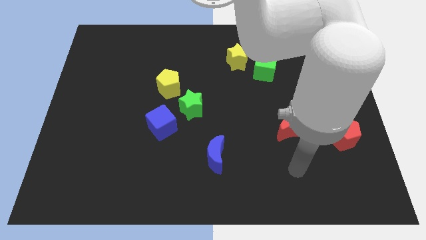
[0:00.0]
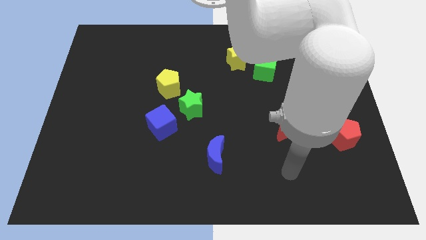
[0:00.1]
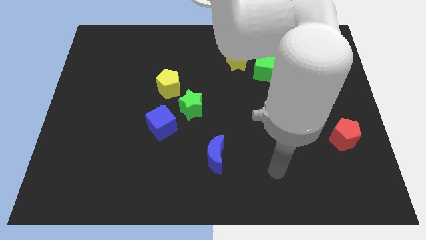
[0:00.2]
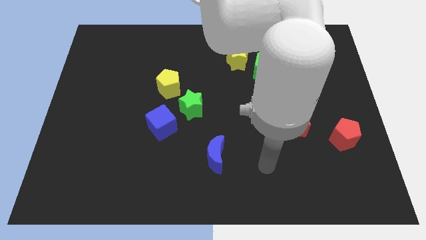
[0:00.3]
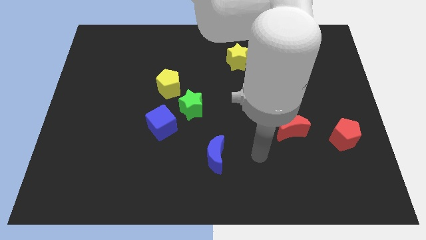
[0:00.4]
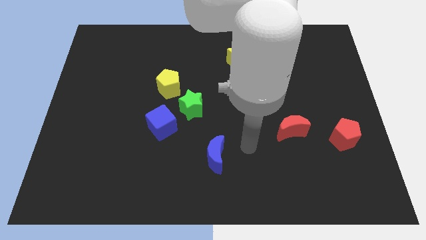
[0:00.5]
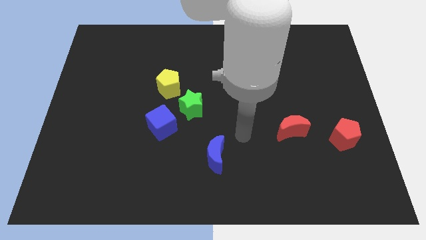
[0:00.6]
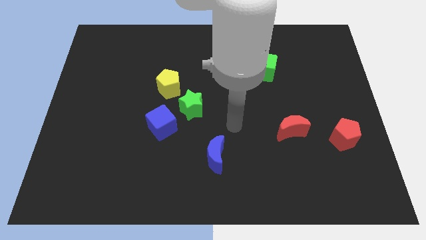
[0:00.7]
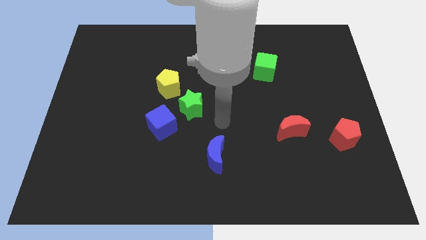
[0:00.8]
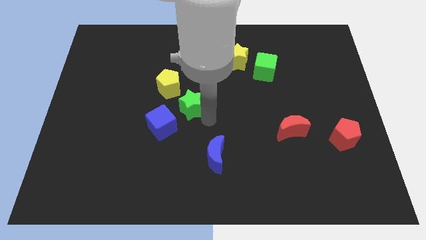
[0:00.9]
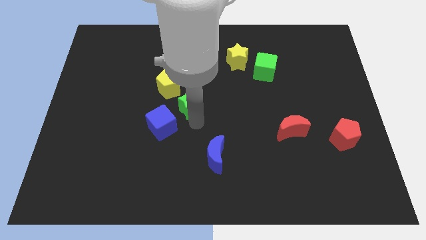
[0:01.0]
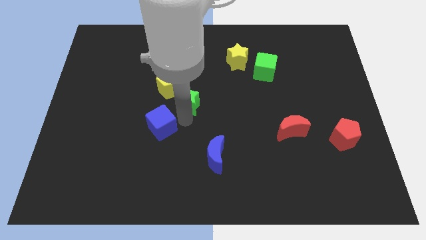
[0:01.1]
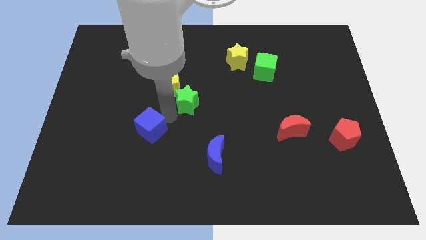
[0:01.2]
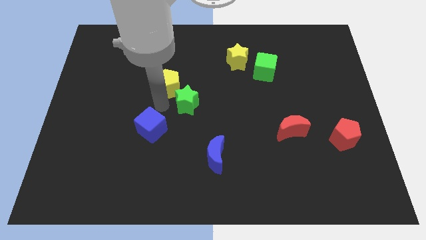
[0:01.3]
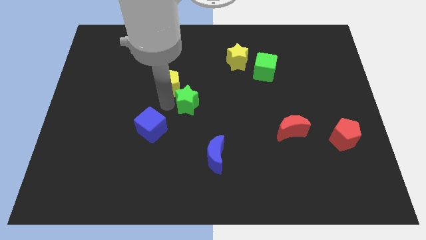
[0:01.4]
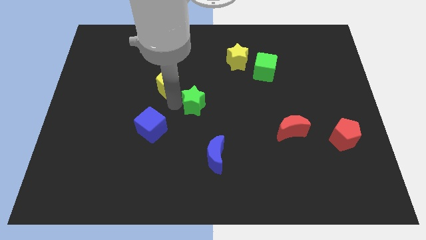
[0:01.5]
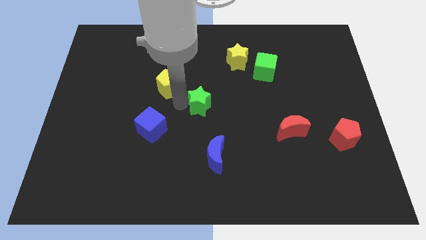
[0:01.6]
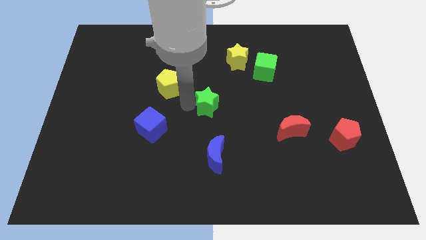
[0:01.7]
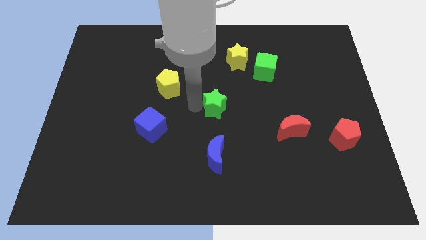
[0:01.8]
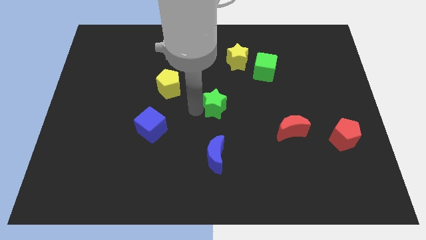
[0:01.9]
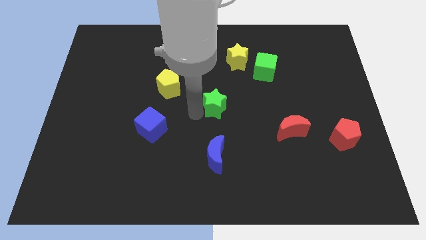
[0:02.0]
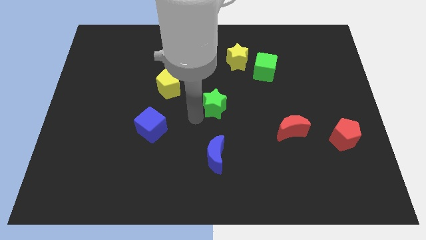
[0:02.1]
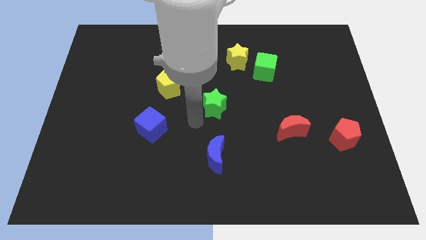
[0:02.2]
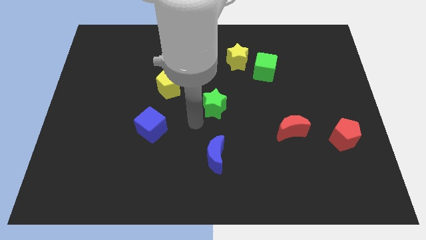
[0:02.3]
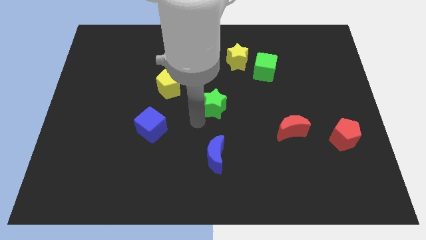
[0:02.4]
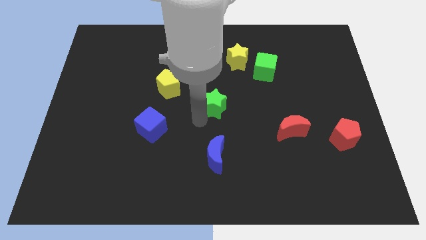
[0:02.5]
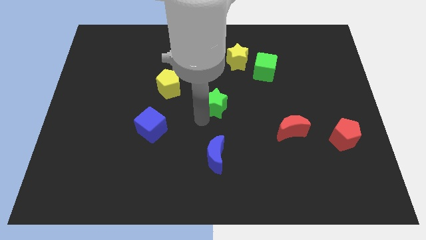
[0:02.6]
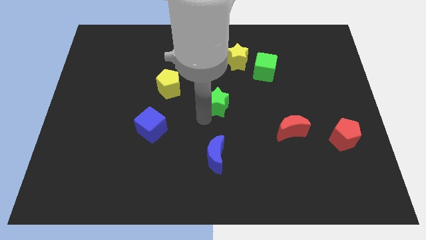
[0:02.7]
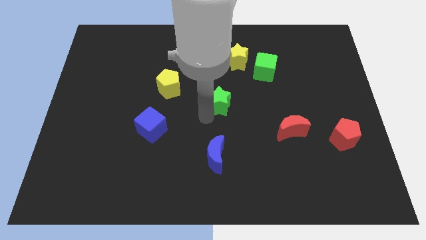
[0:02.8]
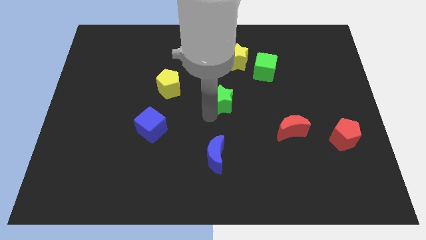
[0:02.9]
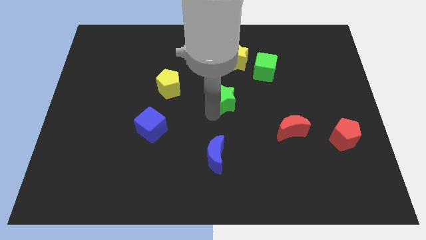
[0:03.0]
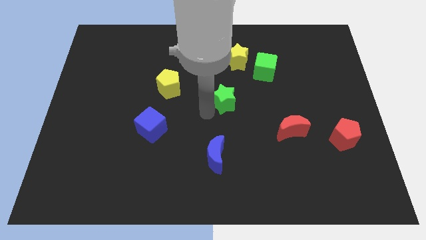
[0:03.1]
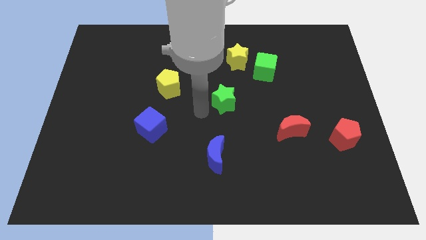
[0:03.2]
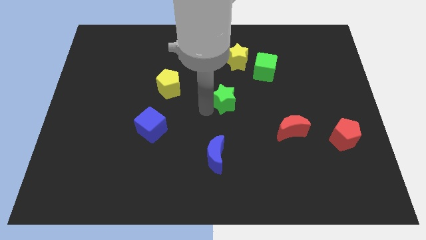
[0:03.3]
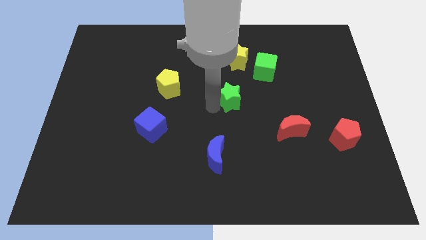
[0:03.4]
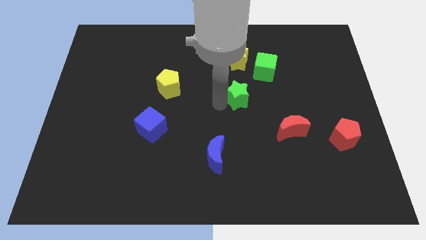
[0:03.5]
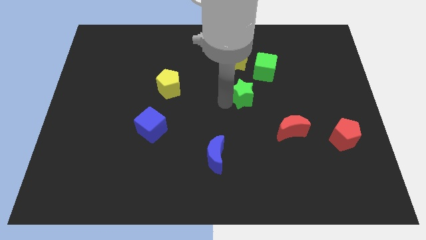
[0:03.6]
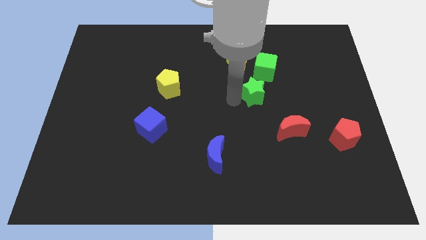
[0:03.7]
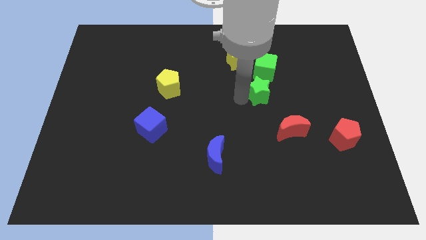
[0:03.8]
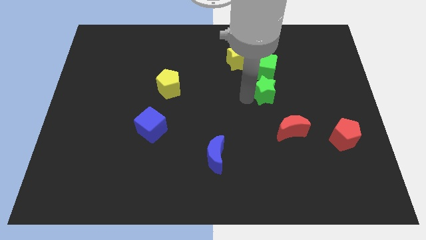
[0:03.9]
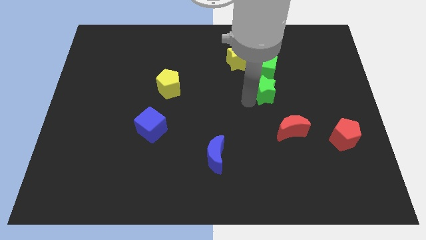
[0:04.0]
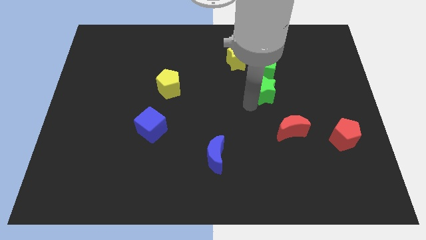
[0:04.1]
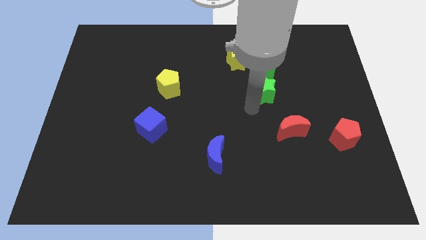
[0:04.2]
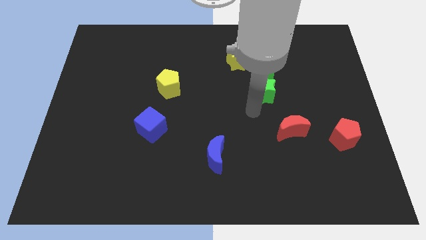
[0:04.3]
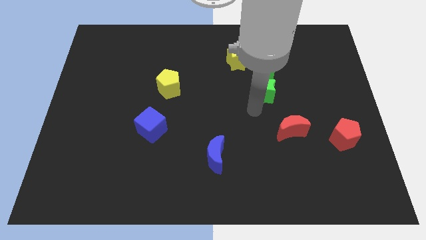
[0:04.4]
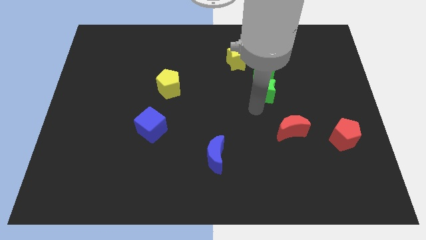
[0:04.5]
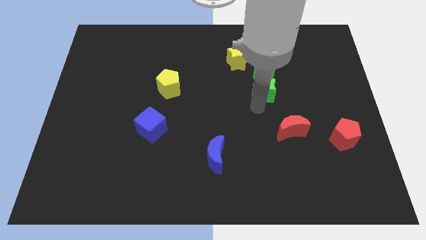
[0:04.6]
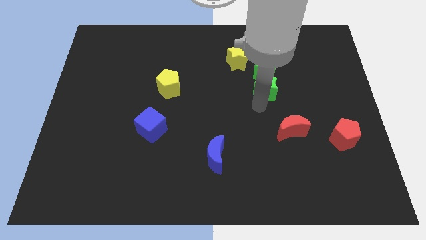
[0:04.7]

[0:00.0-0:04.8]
move the green star to the bottom right of the yellow star

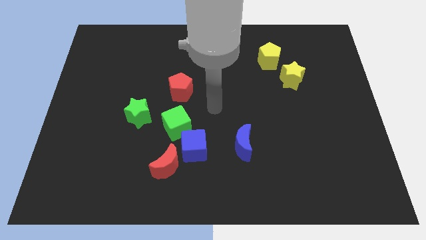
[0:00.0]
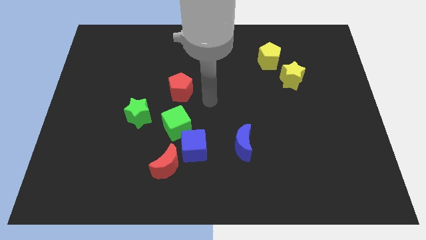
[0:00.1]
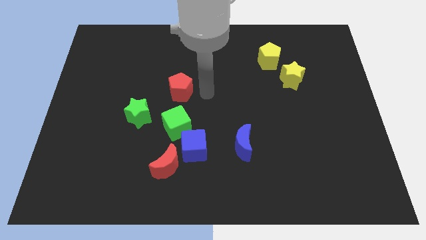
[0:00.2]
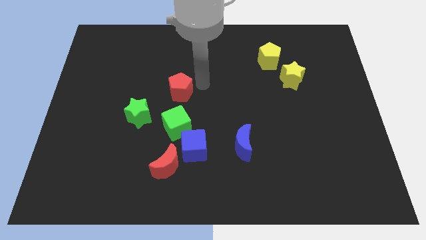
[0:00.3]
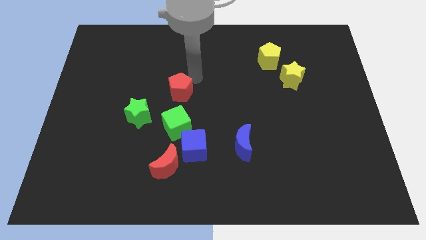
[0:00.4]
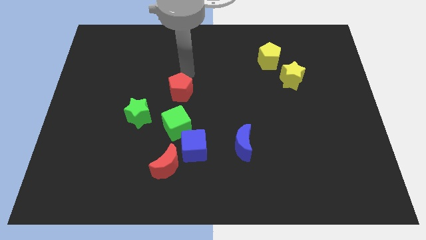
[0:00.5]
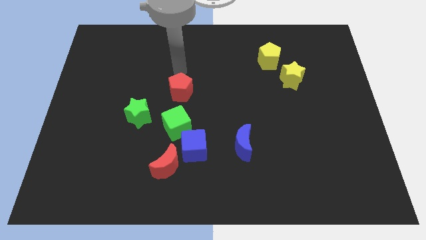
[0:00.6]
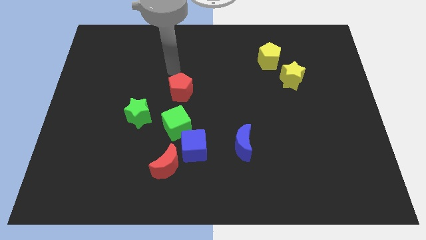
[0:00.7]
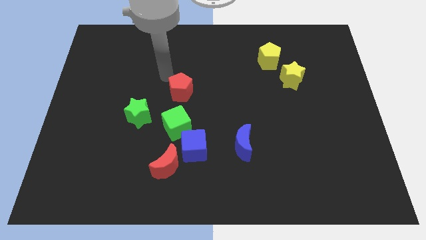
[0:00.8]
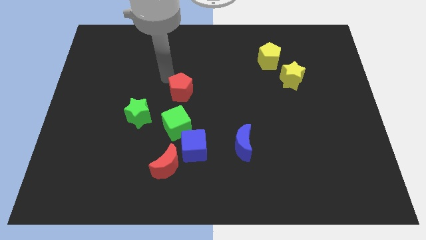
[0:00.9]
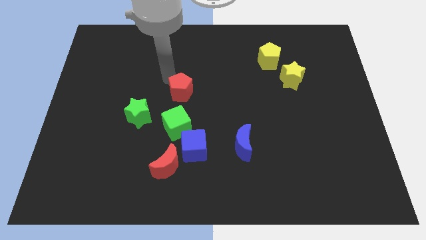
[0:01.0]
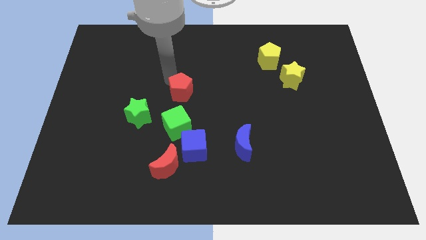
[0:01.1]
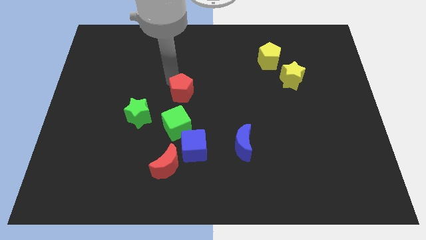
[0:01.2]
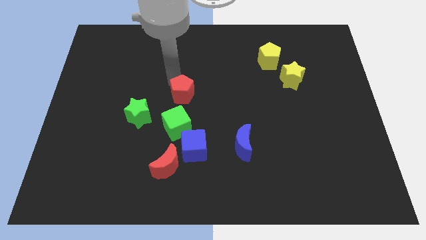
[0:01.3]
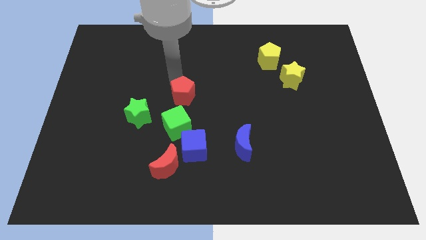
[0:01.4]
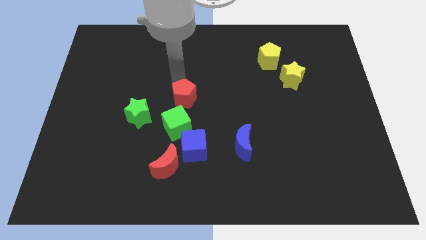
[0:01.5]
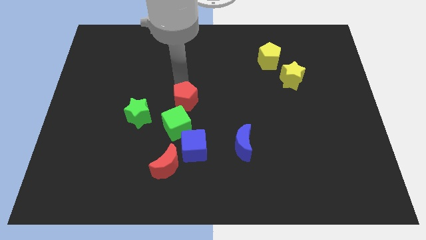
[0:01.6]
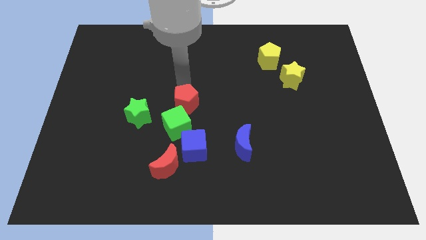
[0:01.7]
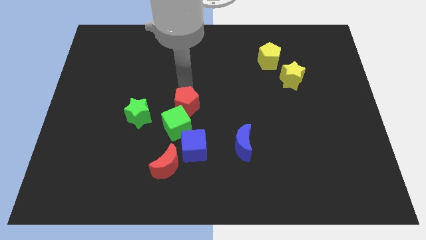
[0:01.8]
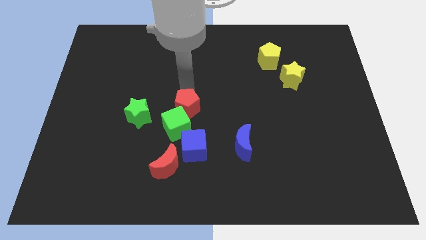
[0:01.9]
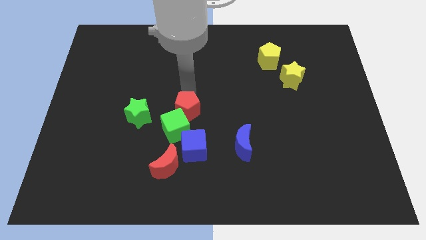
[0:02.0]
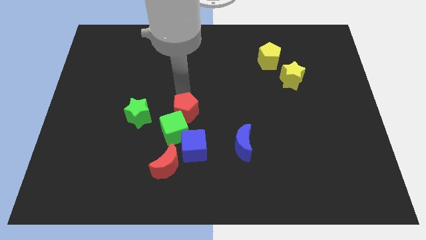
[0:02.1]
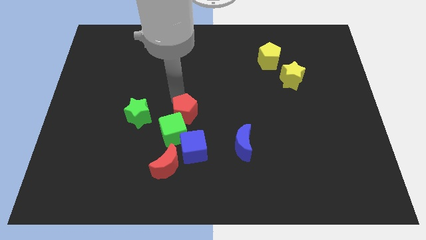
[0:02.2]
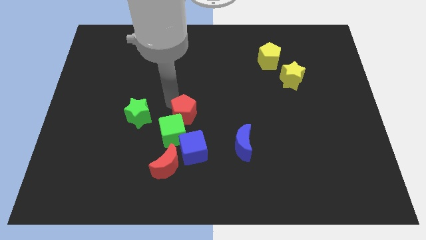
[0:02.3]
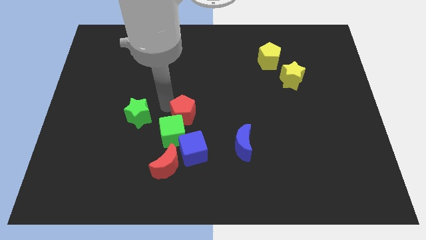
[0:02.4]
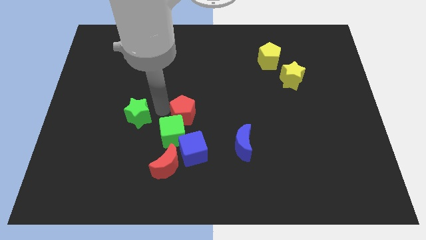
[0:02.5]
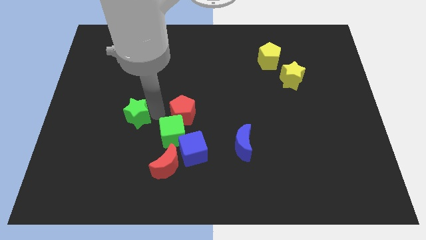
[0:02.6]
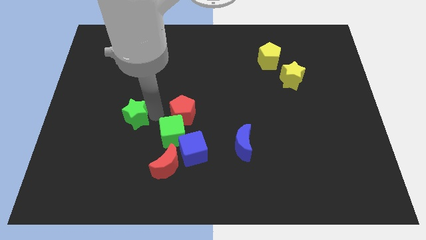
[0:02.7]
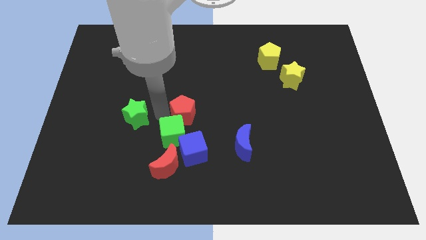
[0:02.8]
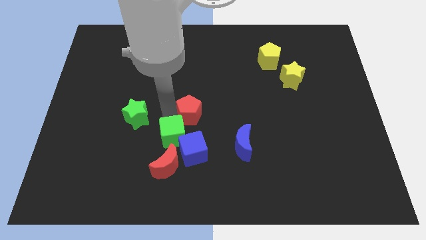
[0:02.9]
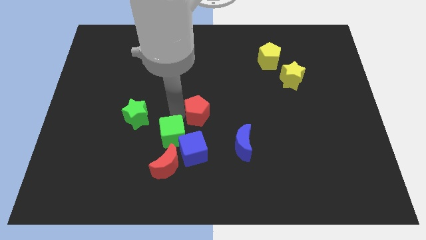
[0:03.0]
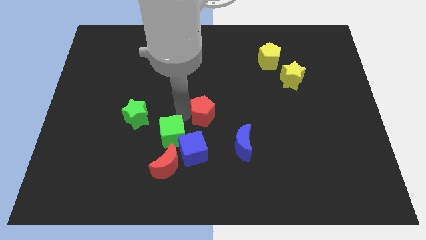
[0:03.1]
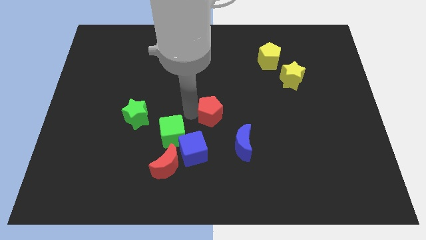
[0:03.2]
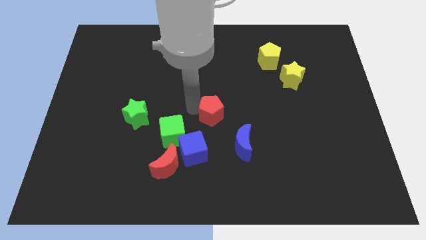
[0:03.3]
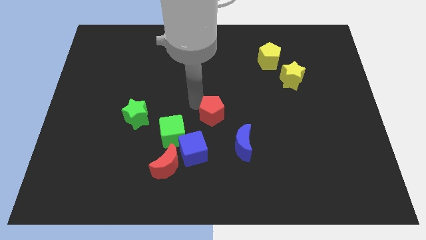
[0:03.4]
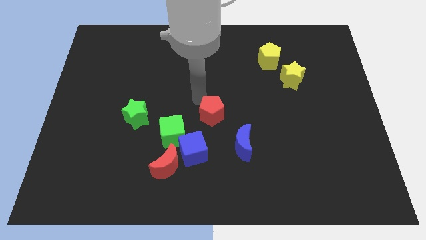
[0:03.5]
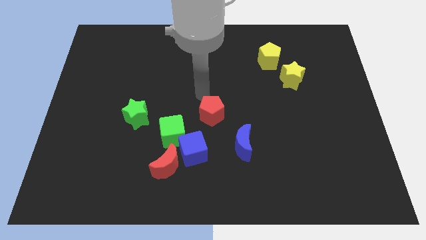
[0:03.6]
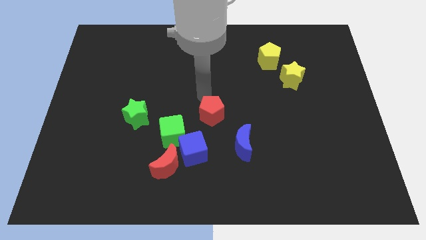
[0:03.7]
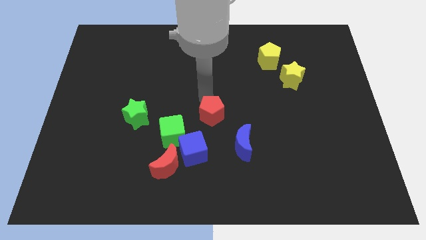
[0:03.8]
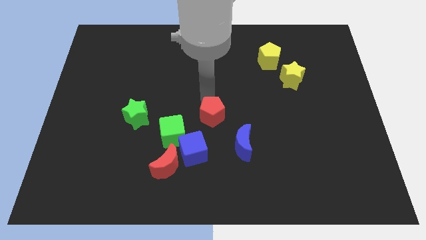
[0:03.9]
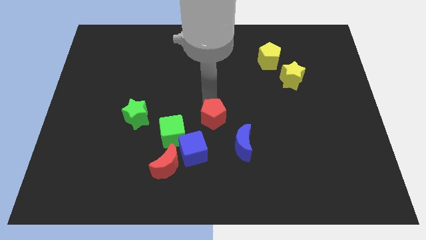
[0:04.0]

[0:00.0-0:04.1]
slide the red pentagon to the right of the green cube
